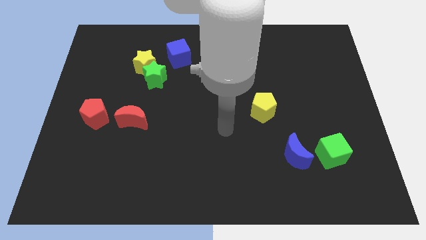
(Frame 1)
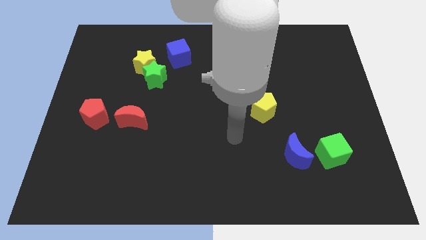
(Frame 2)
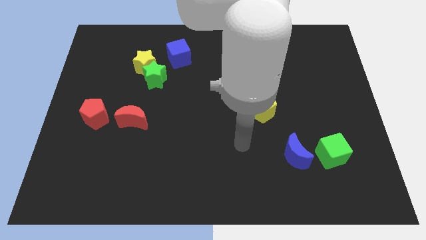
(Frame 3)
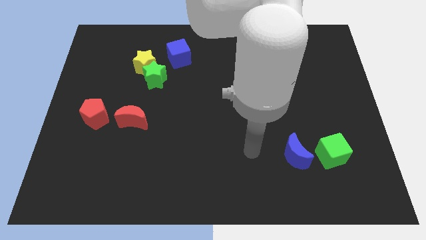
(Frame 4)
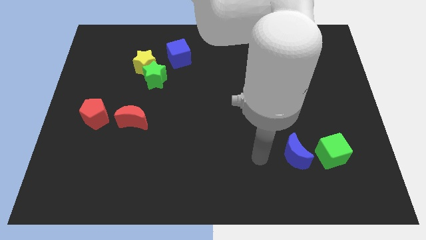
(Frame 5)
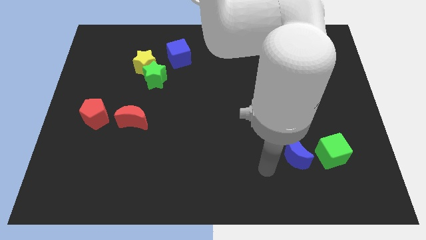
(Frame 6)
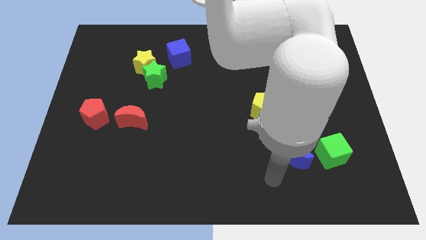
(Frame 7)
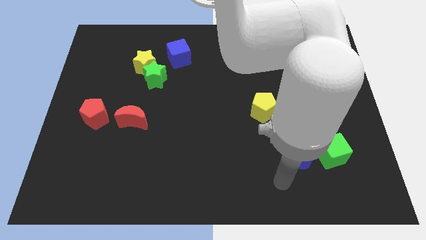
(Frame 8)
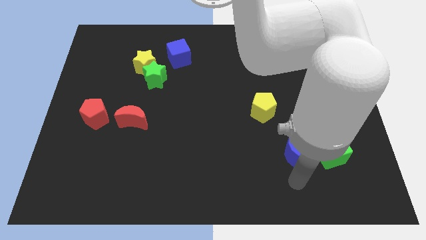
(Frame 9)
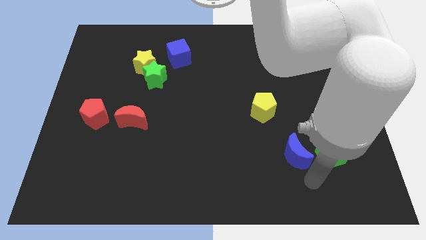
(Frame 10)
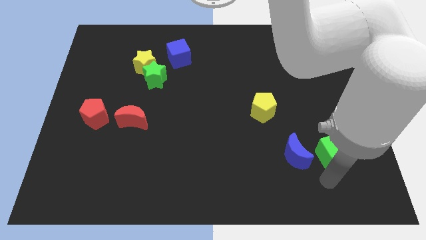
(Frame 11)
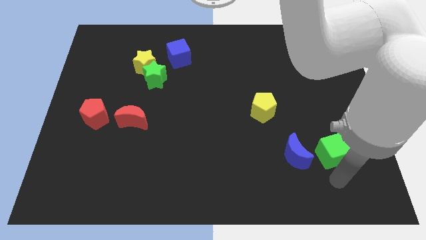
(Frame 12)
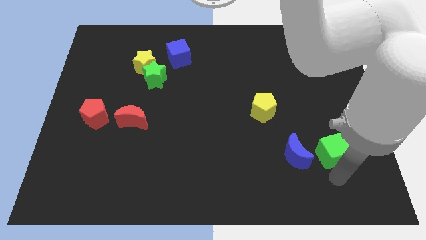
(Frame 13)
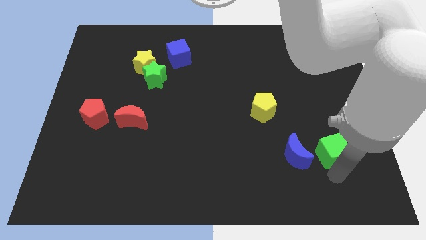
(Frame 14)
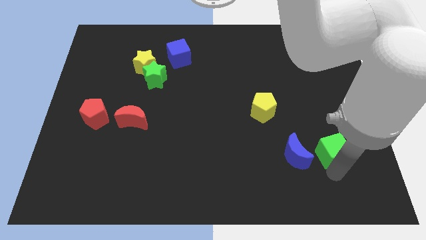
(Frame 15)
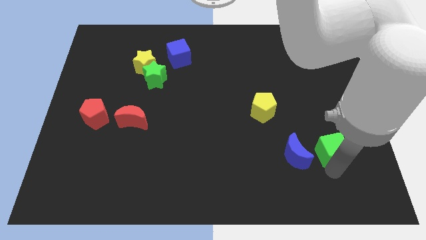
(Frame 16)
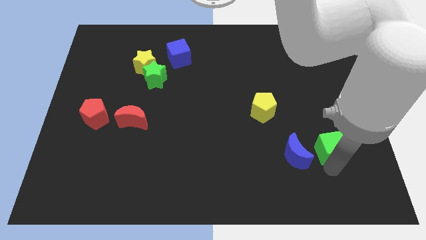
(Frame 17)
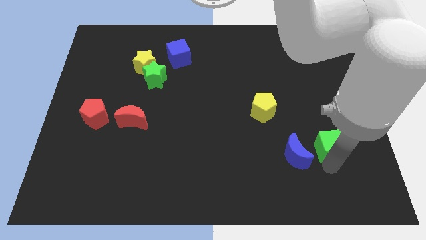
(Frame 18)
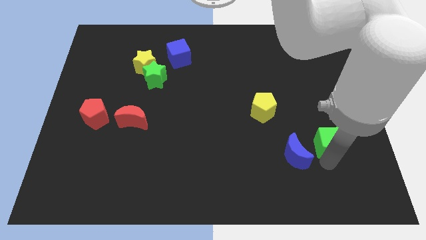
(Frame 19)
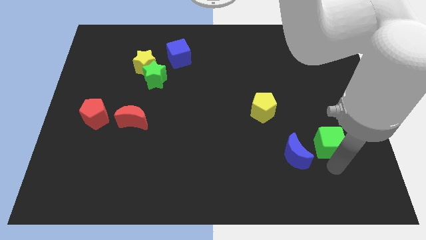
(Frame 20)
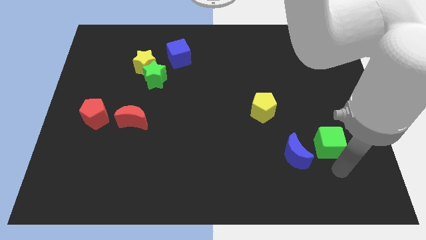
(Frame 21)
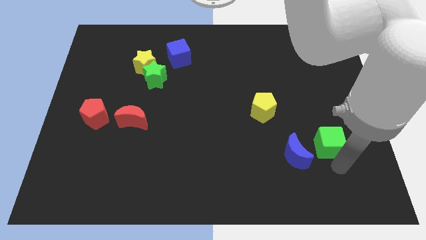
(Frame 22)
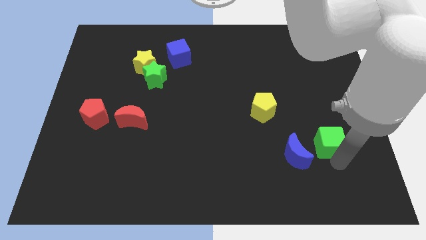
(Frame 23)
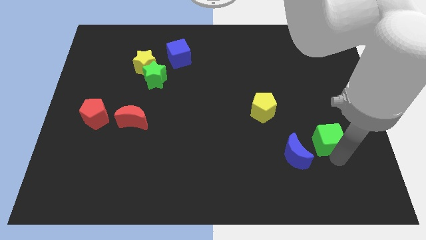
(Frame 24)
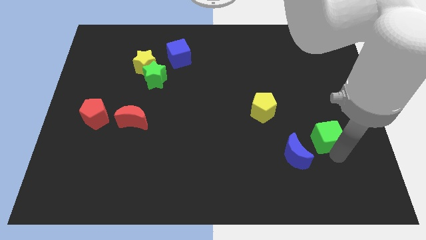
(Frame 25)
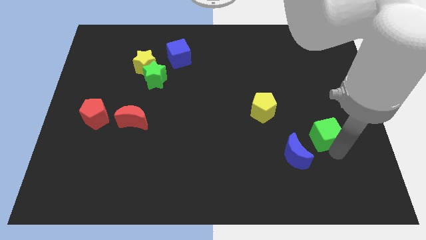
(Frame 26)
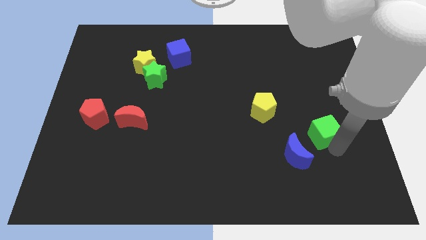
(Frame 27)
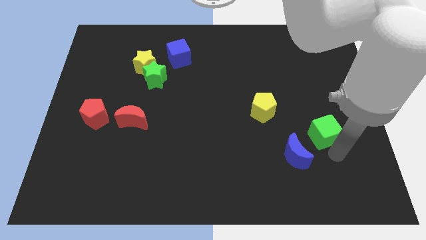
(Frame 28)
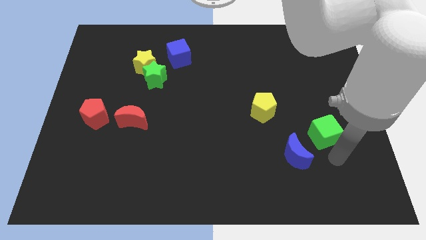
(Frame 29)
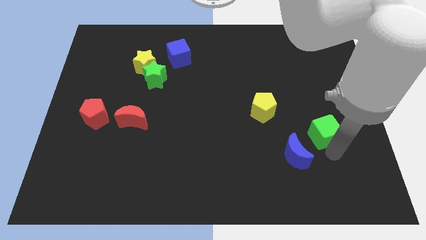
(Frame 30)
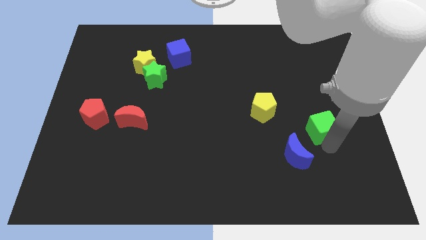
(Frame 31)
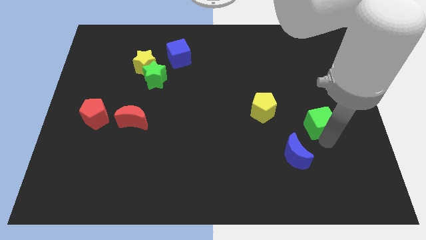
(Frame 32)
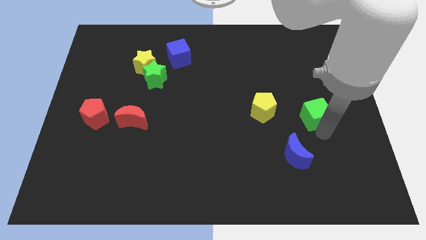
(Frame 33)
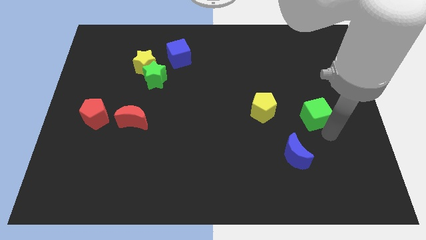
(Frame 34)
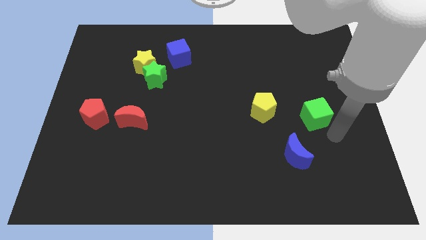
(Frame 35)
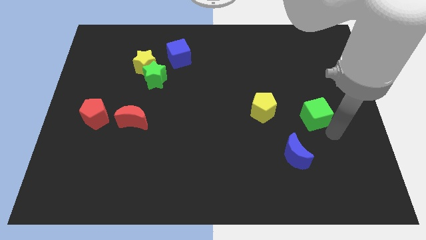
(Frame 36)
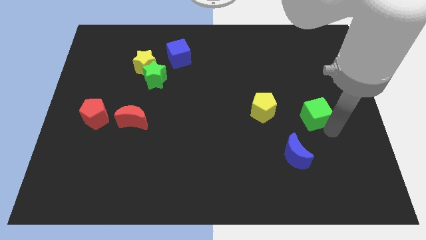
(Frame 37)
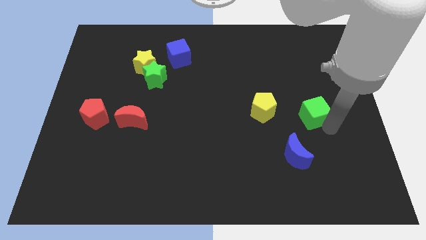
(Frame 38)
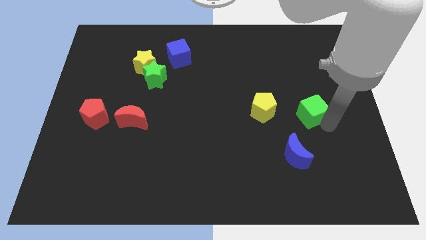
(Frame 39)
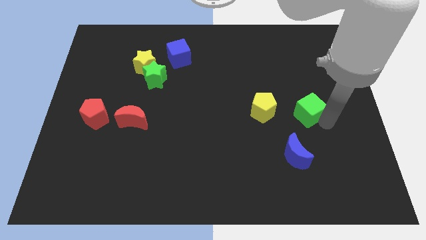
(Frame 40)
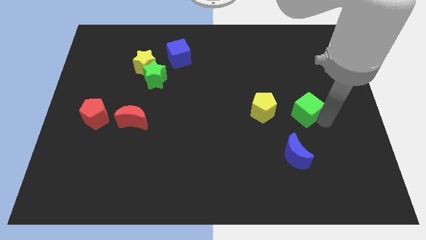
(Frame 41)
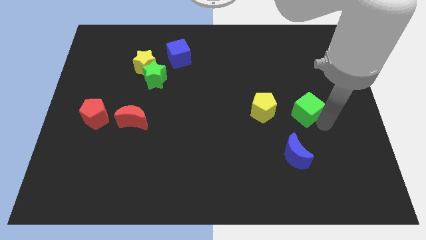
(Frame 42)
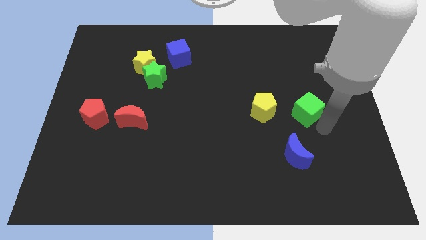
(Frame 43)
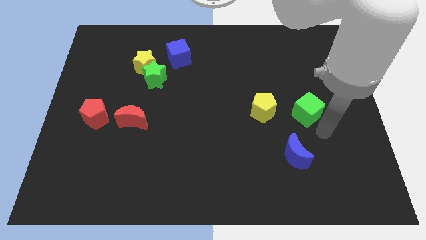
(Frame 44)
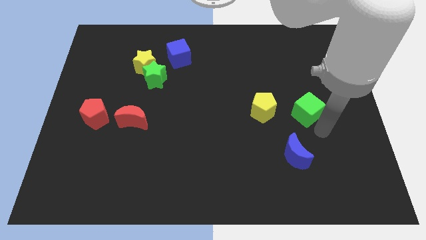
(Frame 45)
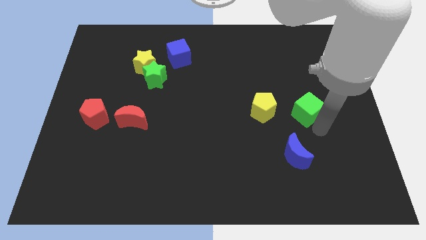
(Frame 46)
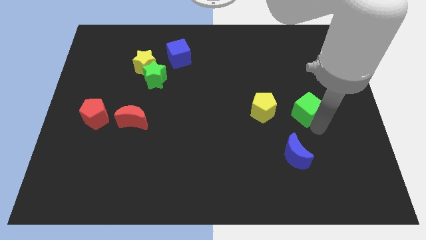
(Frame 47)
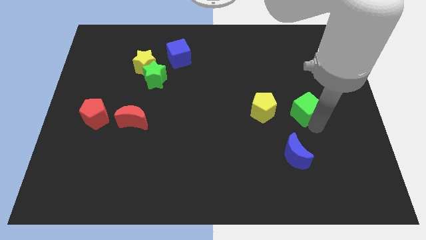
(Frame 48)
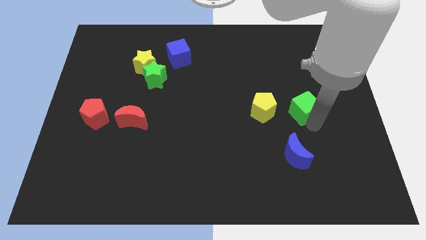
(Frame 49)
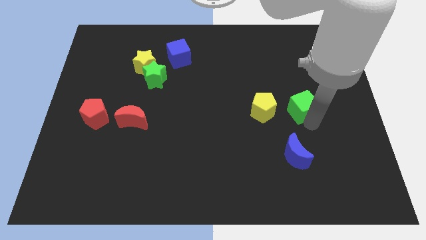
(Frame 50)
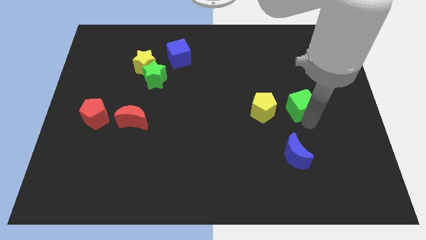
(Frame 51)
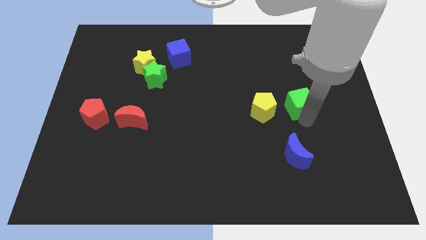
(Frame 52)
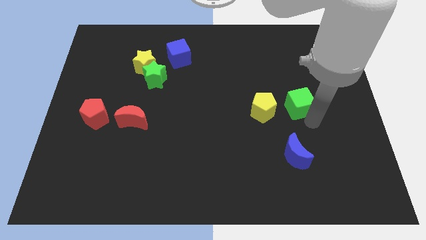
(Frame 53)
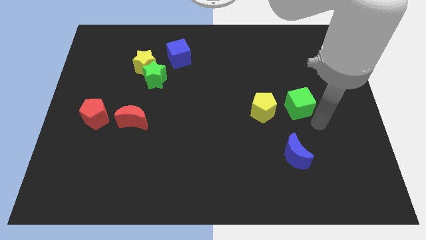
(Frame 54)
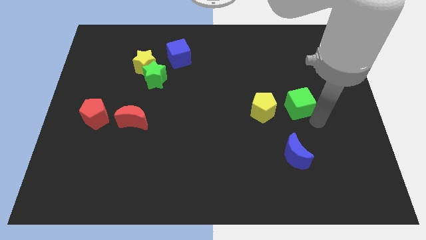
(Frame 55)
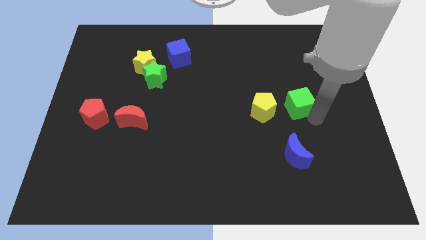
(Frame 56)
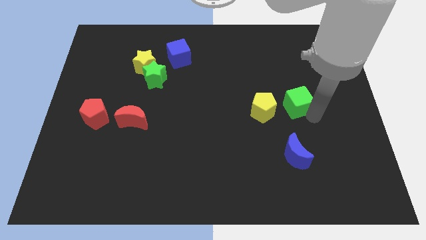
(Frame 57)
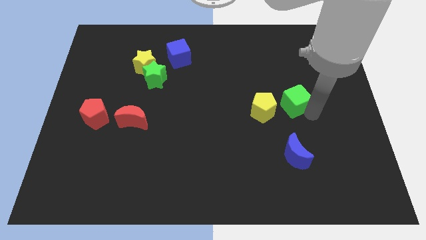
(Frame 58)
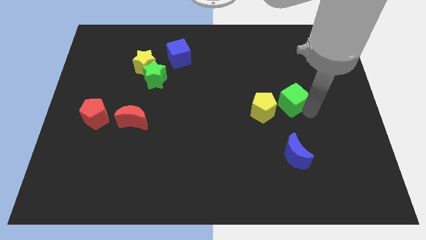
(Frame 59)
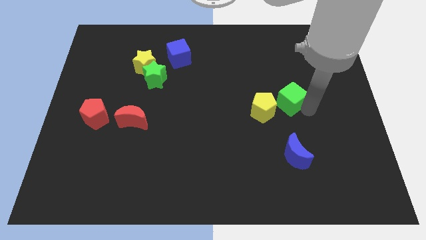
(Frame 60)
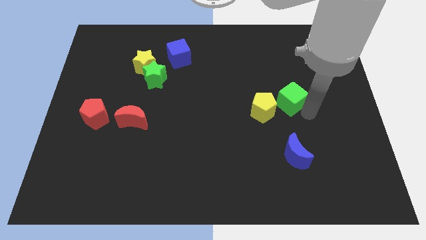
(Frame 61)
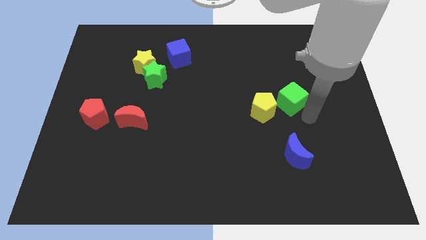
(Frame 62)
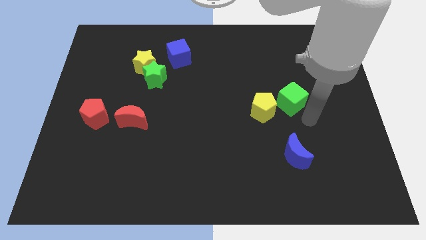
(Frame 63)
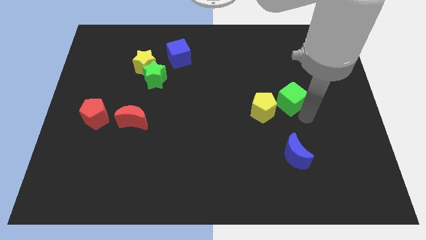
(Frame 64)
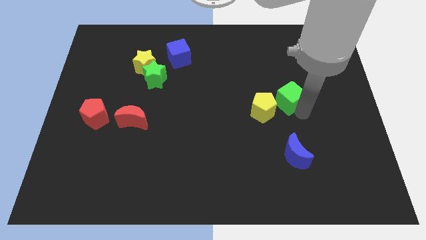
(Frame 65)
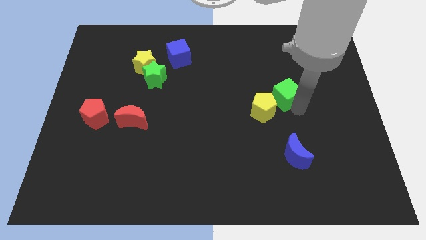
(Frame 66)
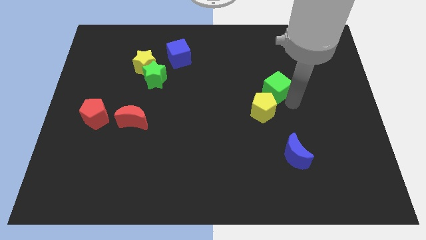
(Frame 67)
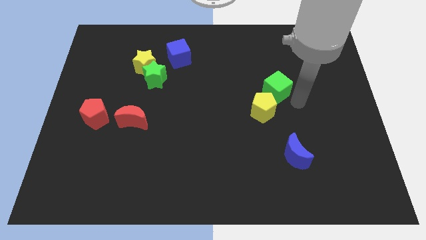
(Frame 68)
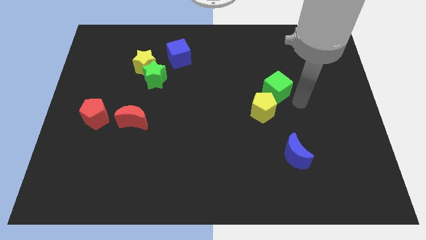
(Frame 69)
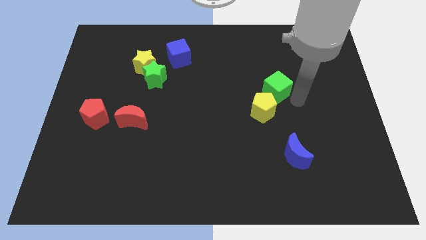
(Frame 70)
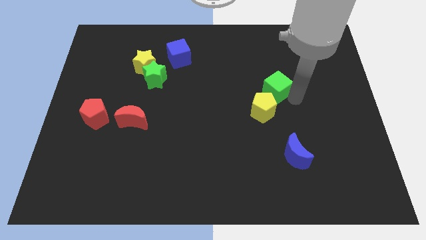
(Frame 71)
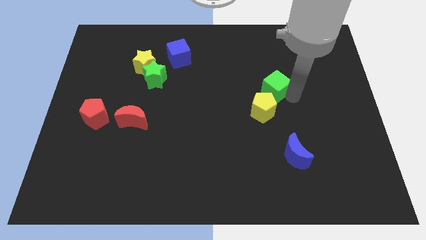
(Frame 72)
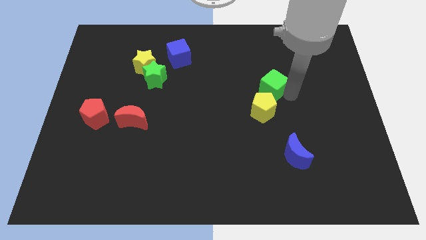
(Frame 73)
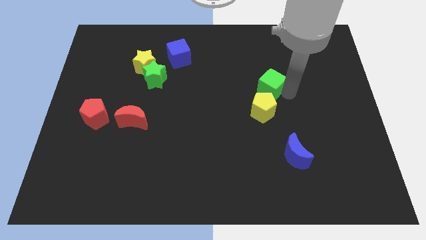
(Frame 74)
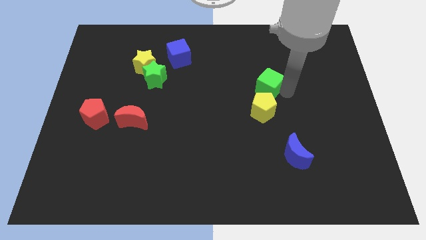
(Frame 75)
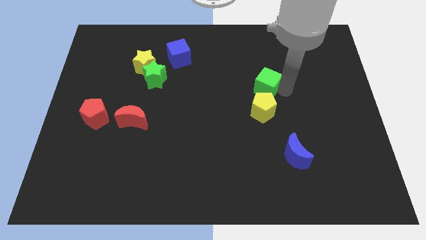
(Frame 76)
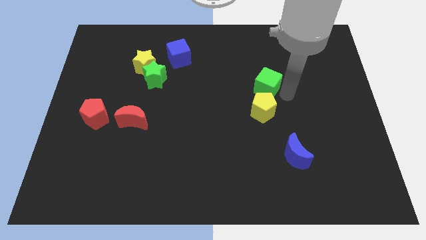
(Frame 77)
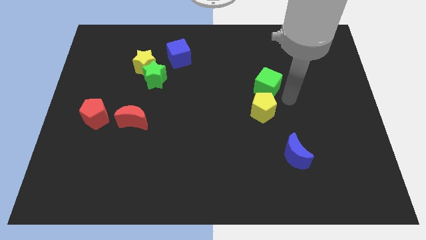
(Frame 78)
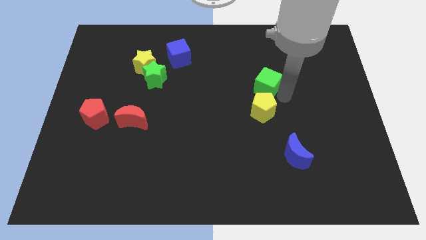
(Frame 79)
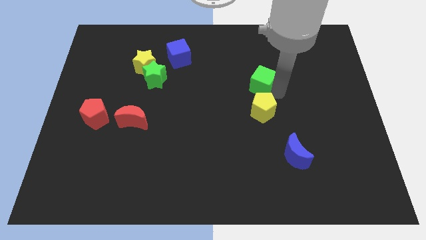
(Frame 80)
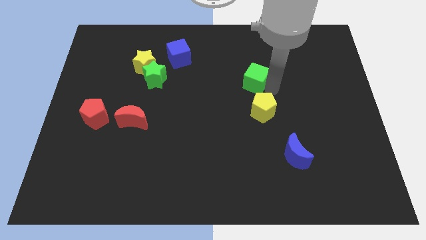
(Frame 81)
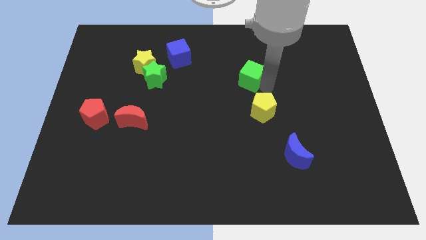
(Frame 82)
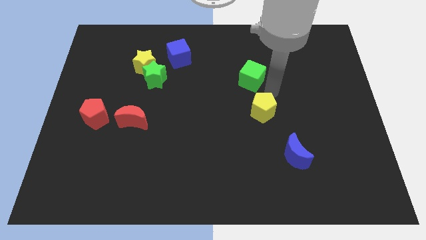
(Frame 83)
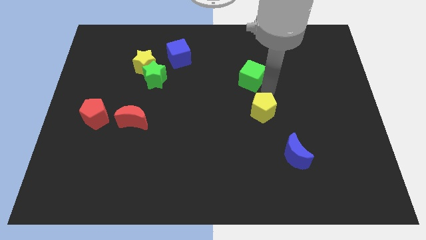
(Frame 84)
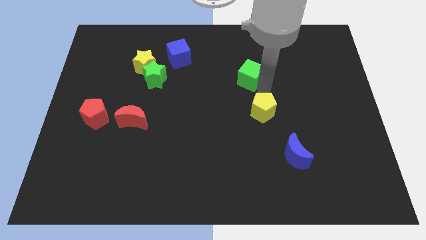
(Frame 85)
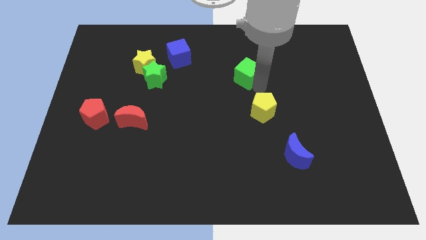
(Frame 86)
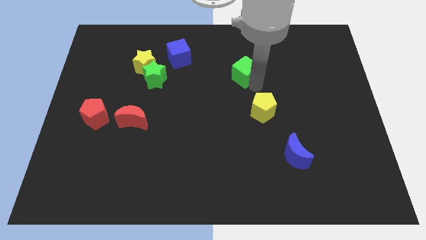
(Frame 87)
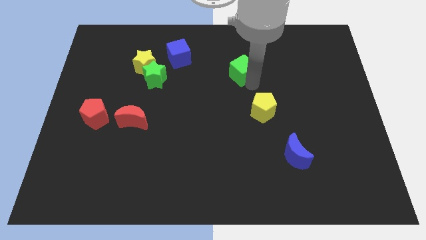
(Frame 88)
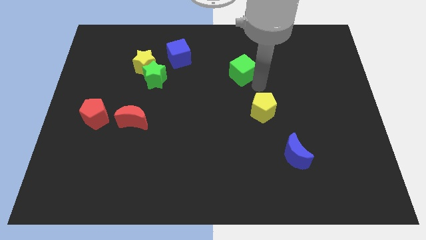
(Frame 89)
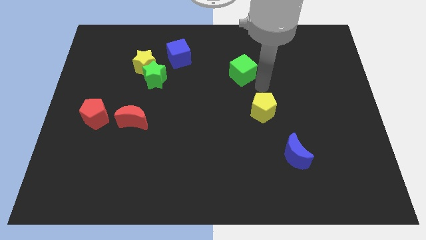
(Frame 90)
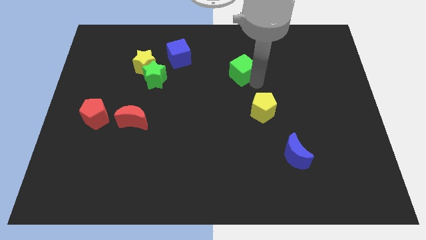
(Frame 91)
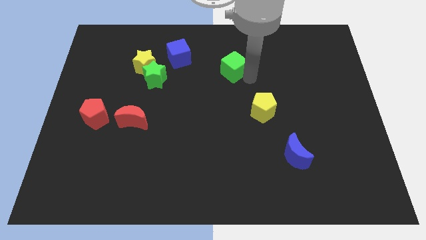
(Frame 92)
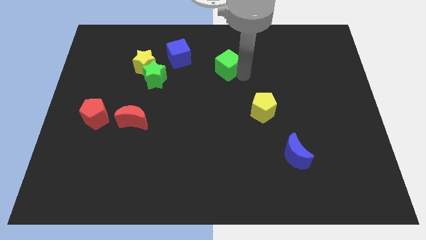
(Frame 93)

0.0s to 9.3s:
slide the green cube just right of the blue cube
